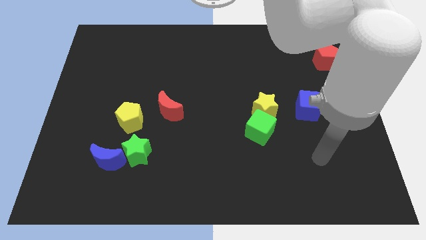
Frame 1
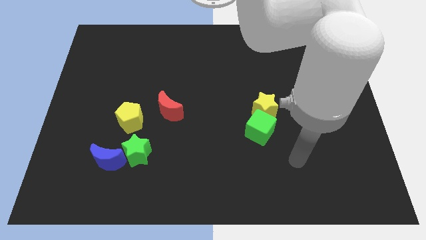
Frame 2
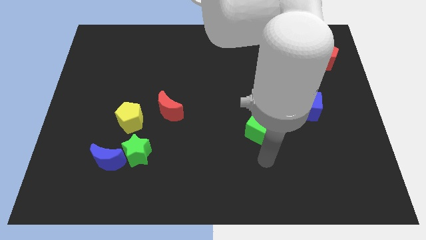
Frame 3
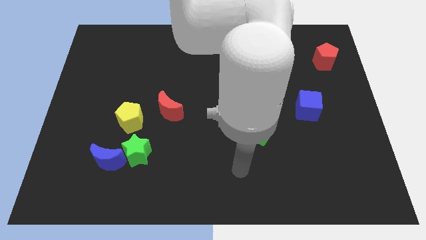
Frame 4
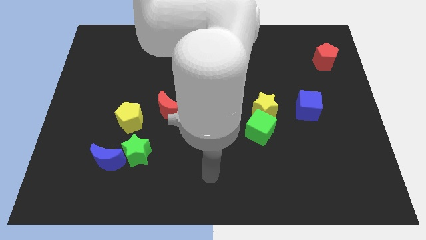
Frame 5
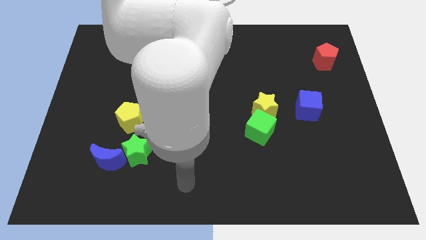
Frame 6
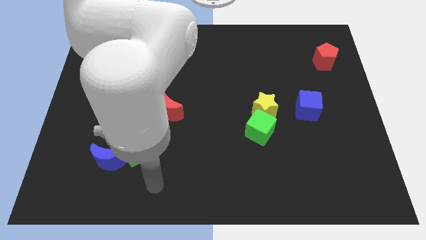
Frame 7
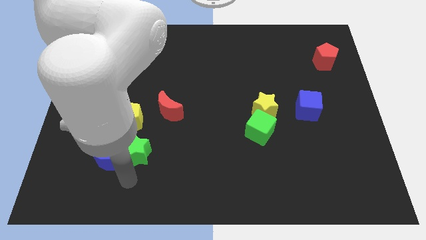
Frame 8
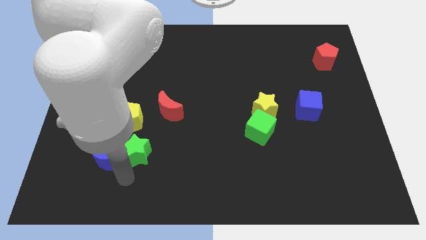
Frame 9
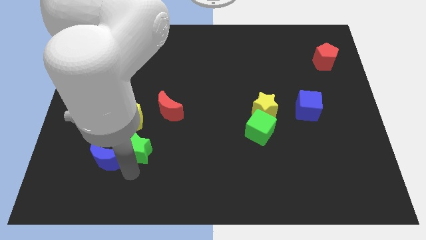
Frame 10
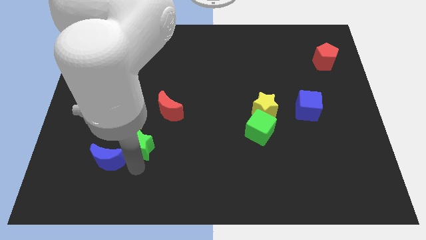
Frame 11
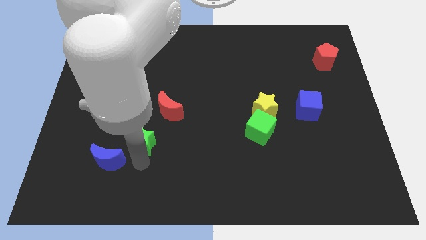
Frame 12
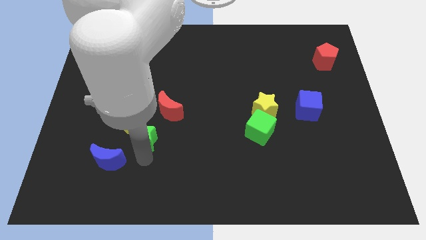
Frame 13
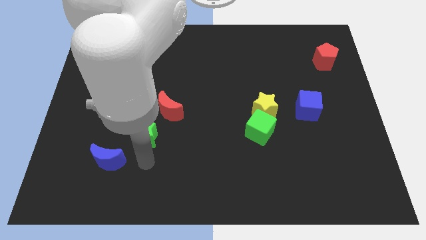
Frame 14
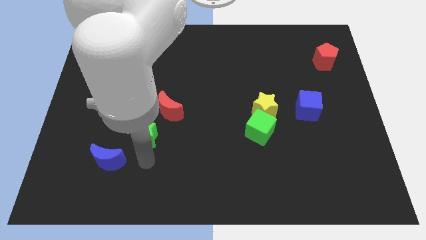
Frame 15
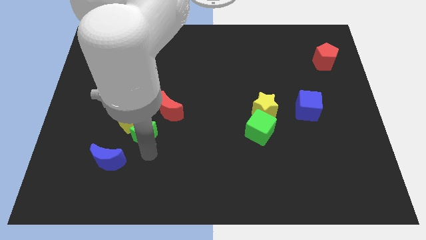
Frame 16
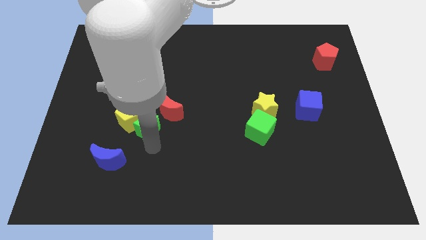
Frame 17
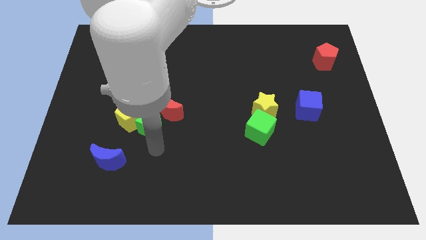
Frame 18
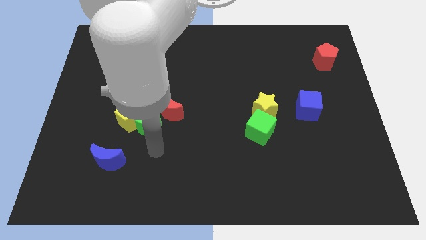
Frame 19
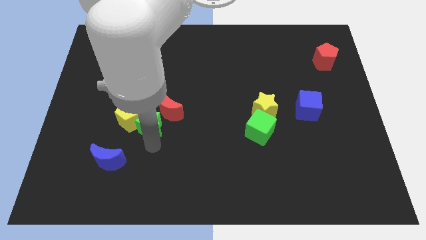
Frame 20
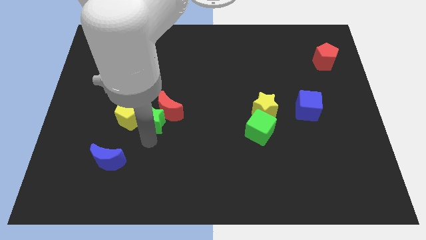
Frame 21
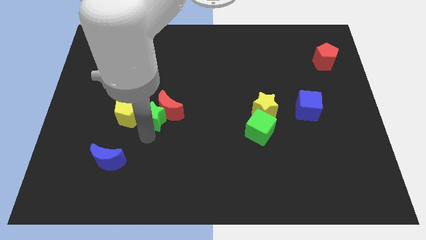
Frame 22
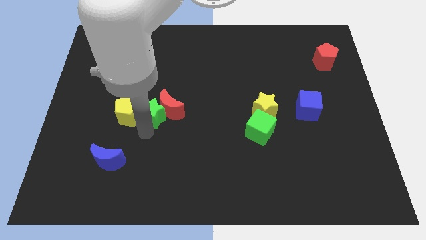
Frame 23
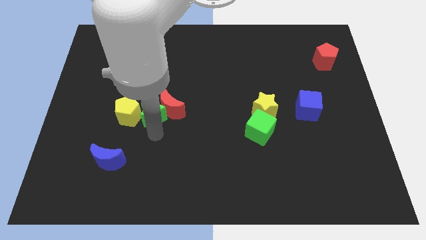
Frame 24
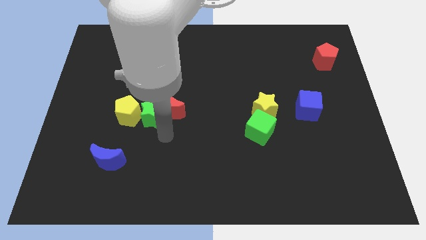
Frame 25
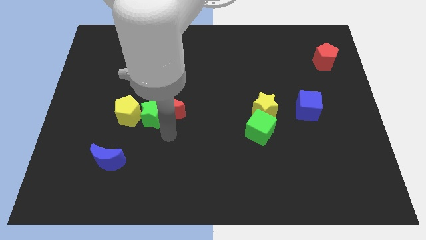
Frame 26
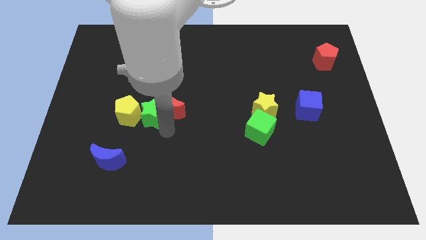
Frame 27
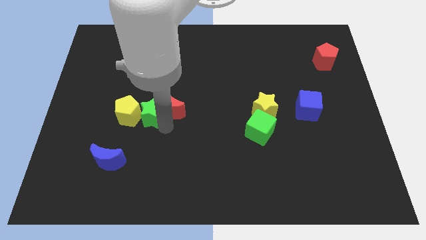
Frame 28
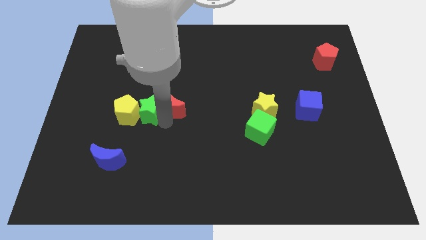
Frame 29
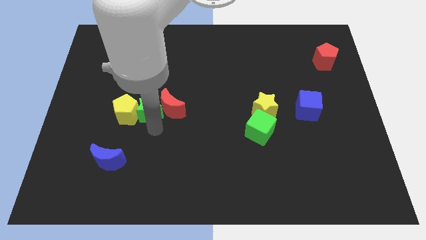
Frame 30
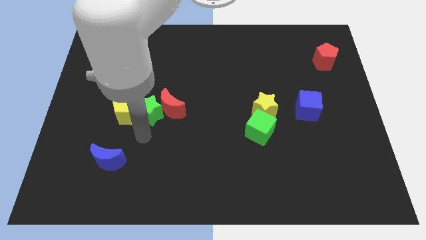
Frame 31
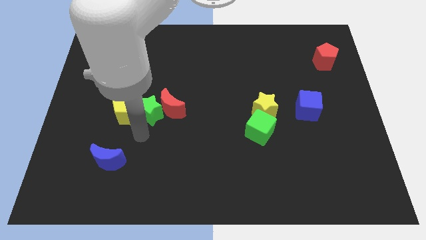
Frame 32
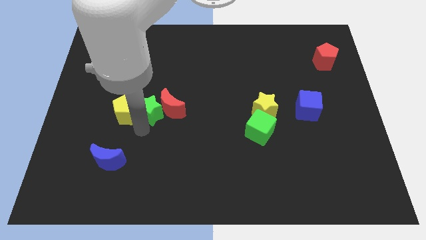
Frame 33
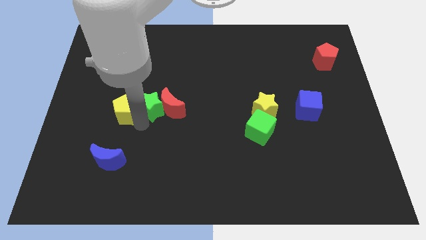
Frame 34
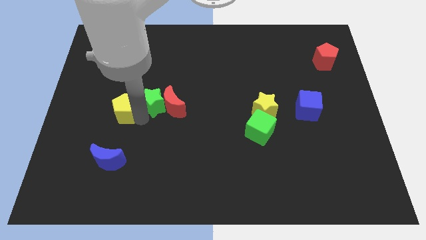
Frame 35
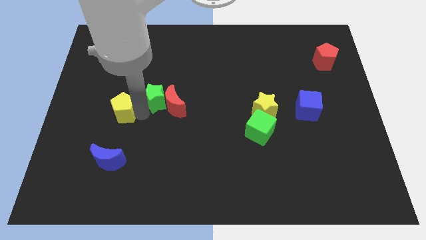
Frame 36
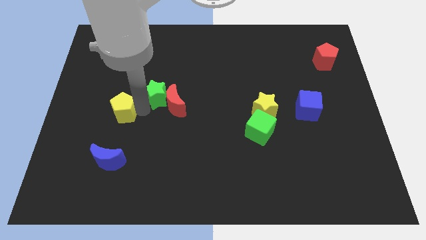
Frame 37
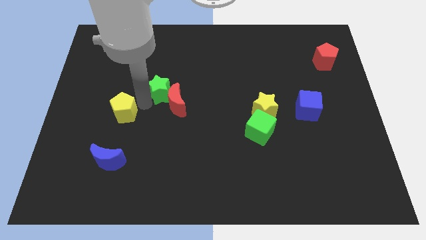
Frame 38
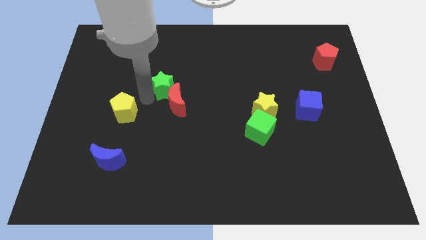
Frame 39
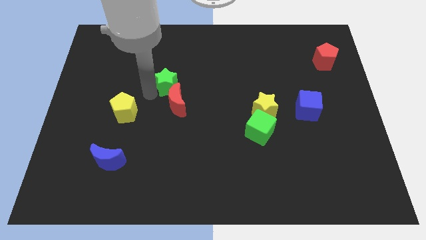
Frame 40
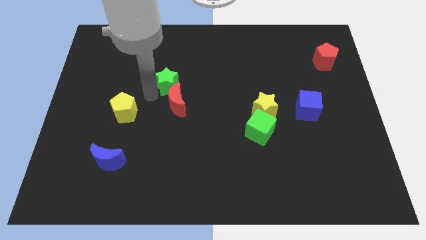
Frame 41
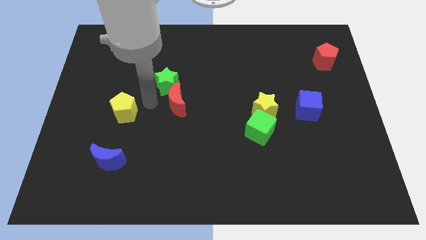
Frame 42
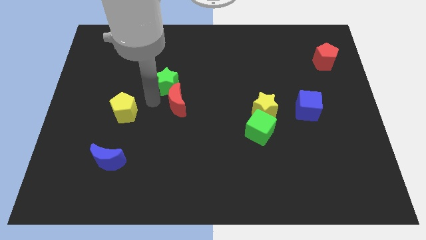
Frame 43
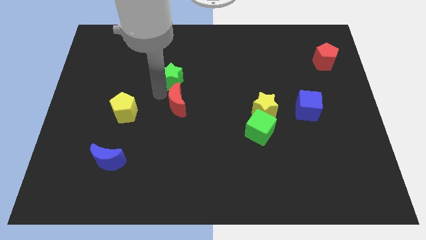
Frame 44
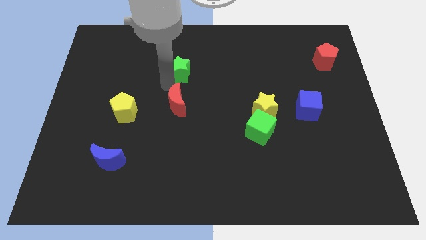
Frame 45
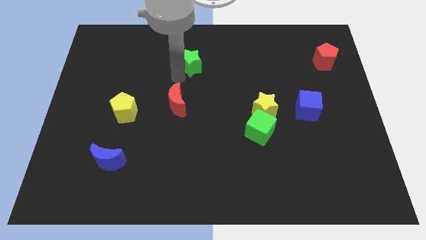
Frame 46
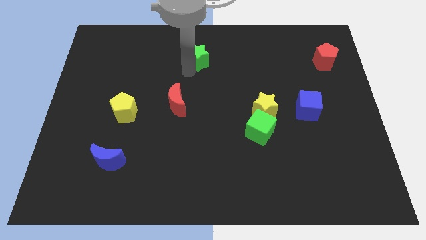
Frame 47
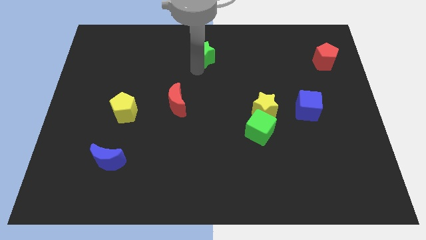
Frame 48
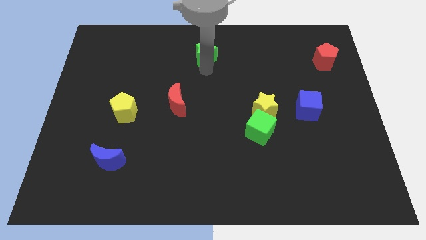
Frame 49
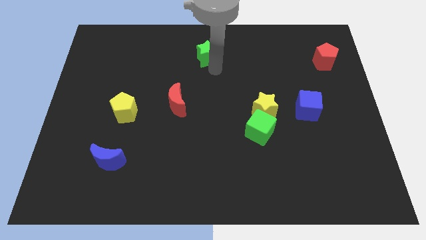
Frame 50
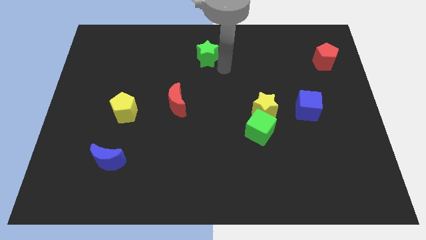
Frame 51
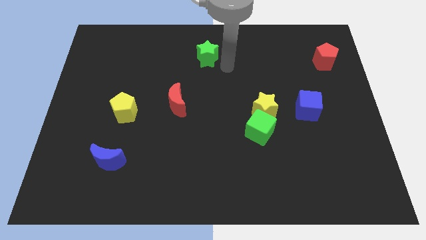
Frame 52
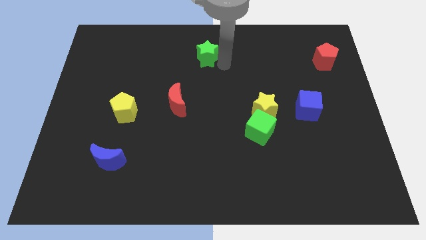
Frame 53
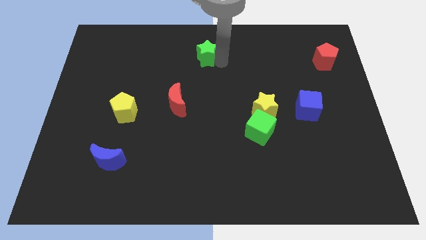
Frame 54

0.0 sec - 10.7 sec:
push the green star to the towards your base

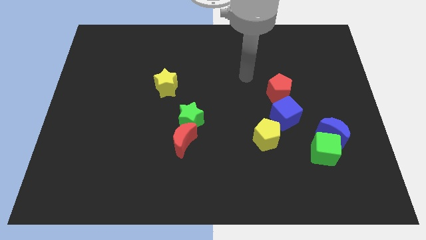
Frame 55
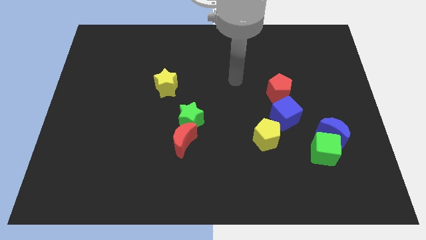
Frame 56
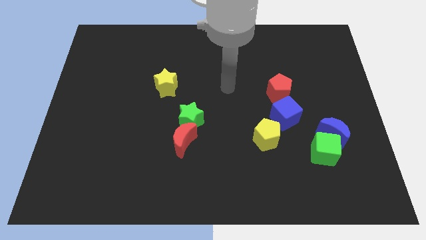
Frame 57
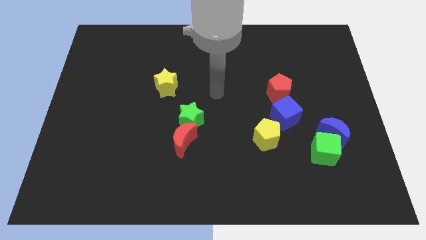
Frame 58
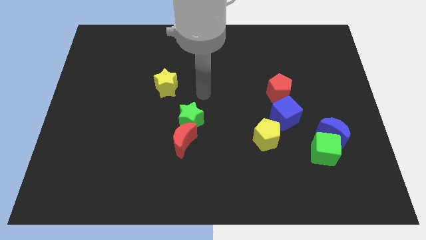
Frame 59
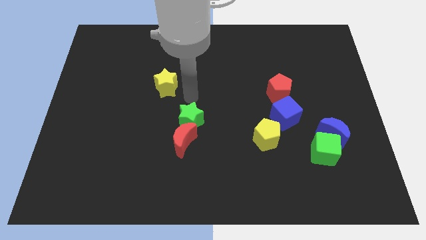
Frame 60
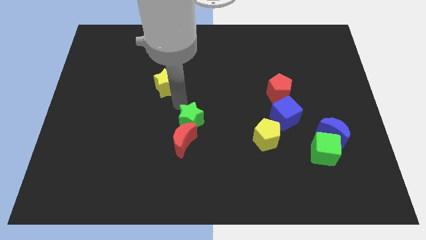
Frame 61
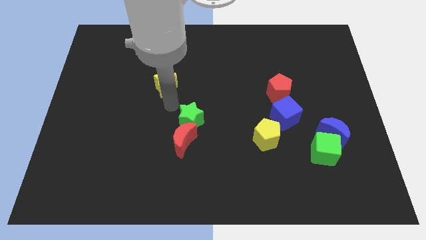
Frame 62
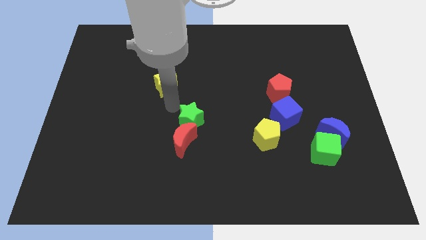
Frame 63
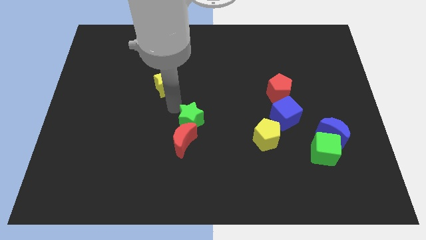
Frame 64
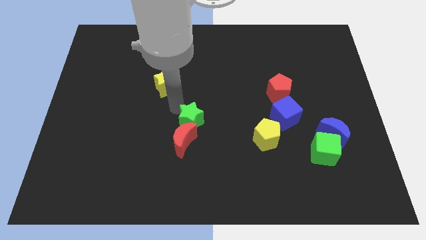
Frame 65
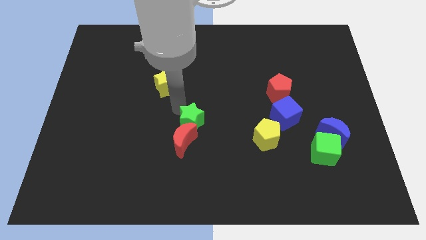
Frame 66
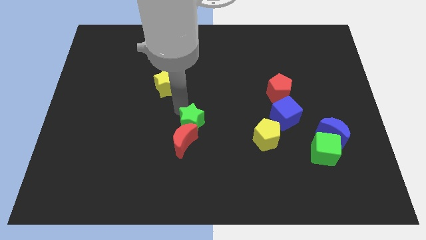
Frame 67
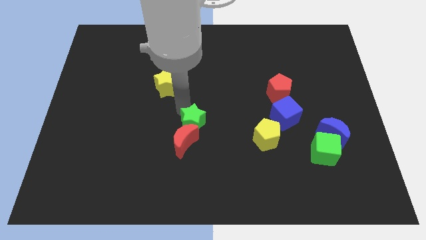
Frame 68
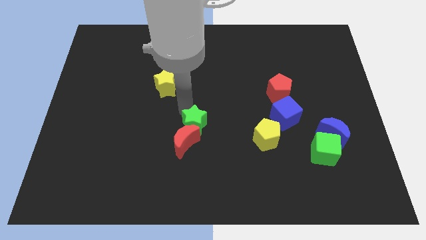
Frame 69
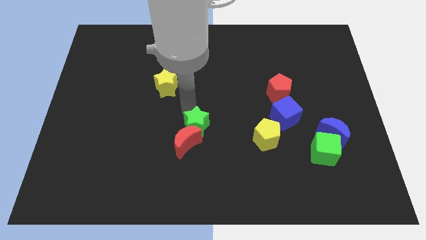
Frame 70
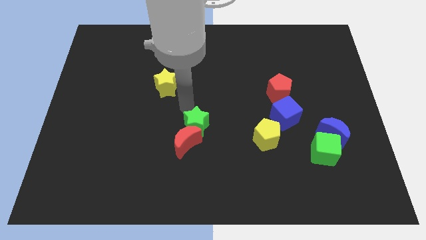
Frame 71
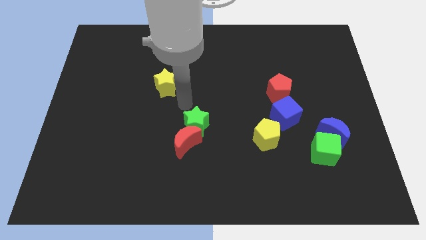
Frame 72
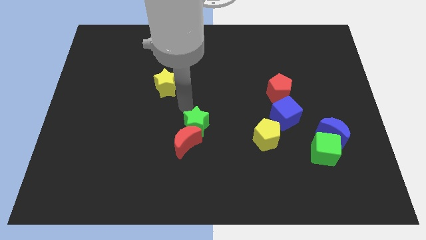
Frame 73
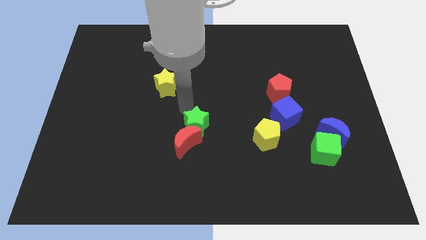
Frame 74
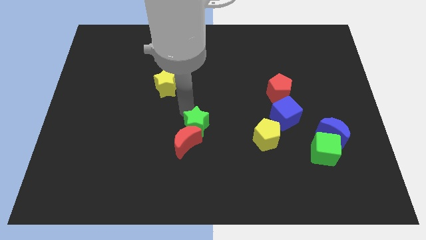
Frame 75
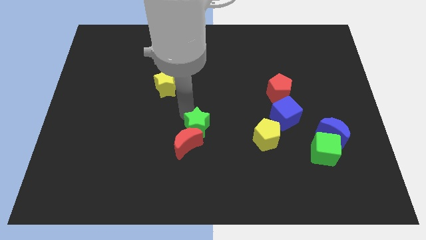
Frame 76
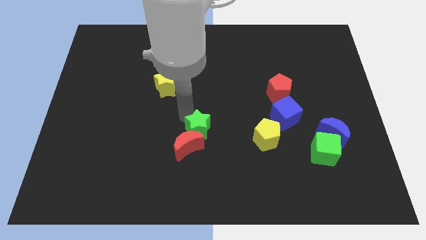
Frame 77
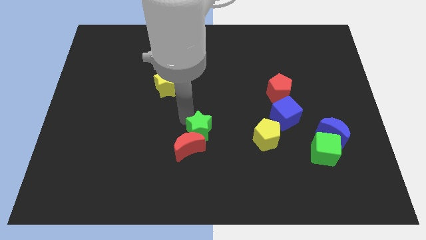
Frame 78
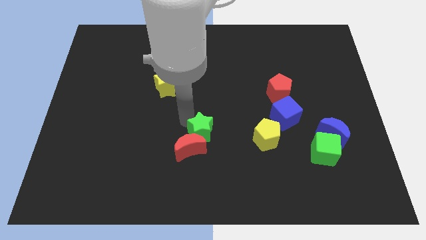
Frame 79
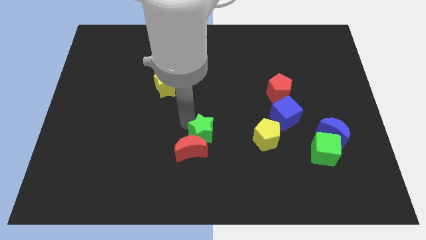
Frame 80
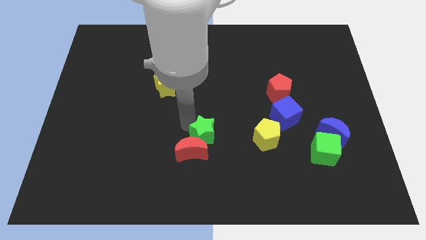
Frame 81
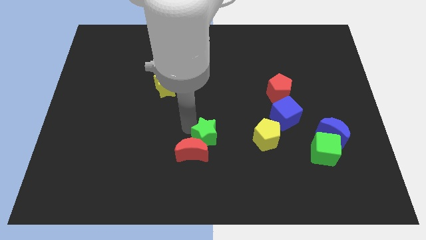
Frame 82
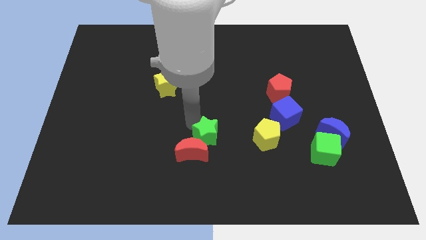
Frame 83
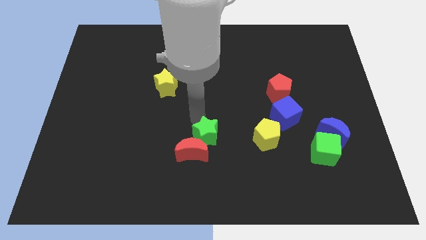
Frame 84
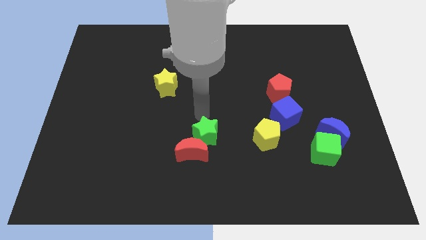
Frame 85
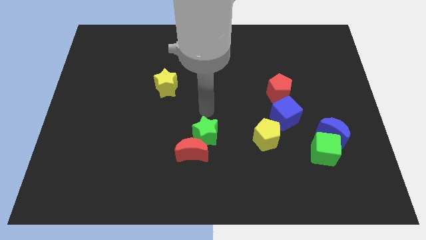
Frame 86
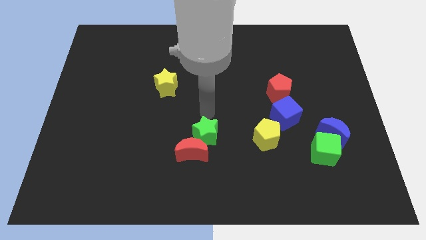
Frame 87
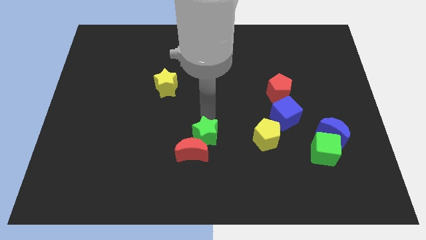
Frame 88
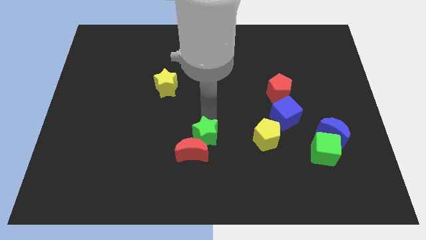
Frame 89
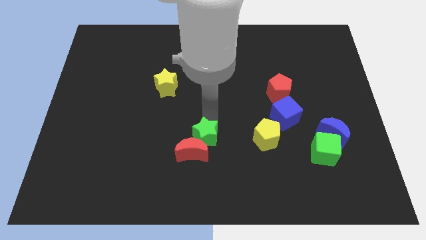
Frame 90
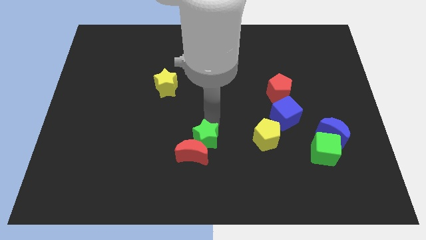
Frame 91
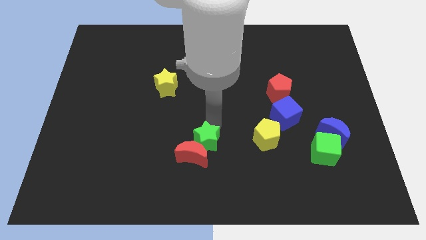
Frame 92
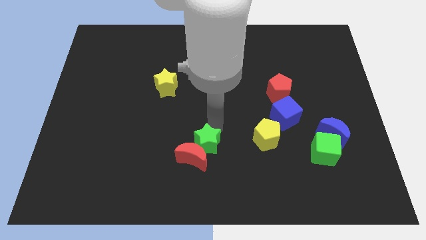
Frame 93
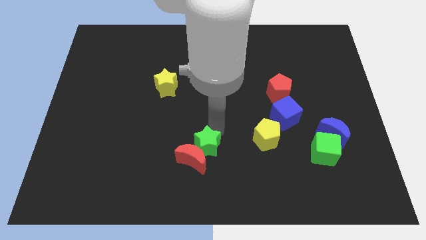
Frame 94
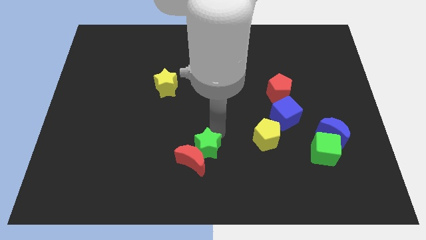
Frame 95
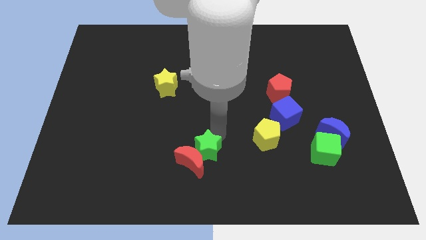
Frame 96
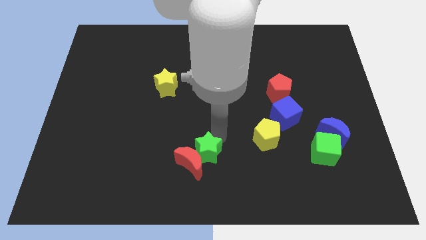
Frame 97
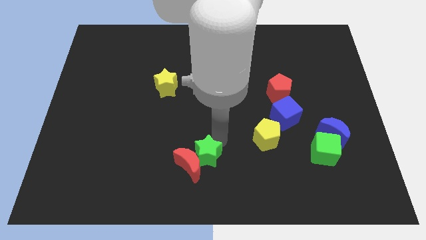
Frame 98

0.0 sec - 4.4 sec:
push the green star to the bottom side
